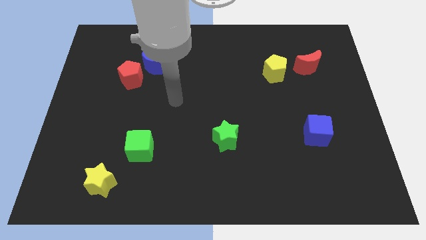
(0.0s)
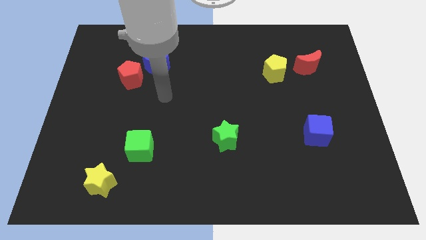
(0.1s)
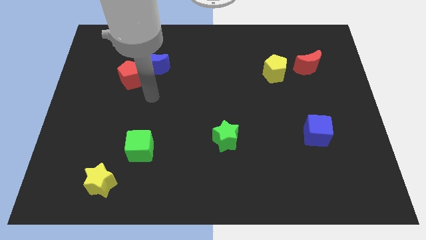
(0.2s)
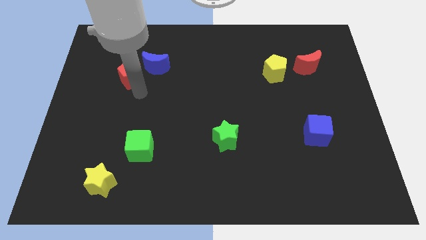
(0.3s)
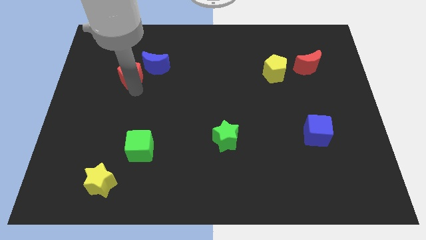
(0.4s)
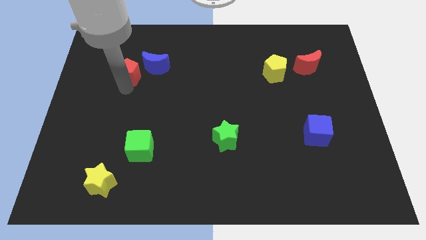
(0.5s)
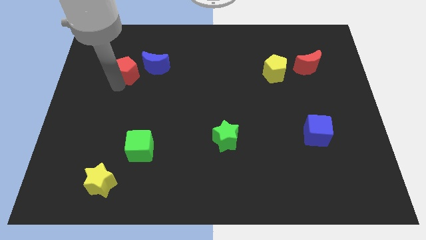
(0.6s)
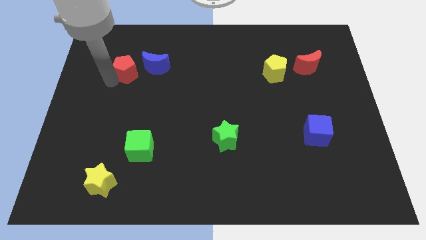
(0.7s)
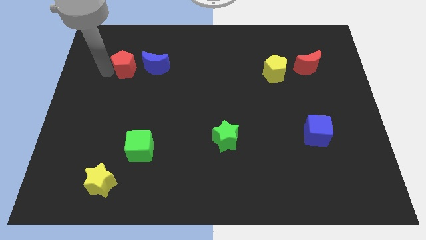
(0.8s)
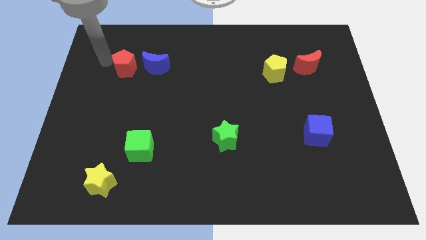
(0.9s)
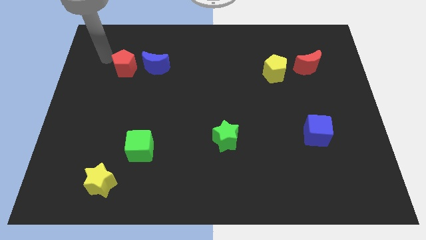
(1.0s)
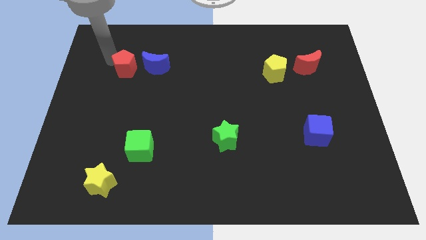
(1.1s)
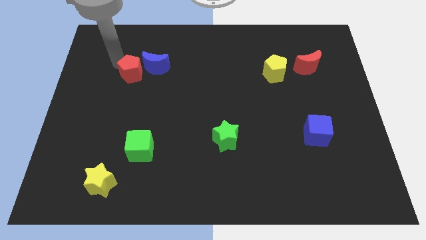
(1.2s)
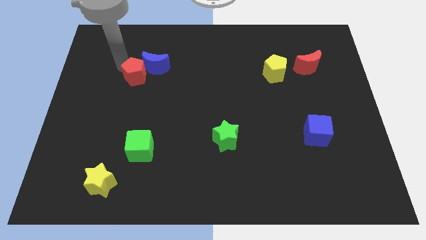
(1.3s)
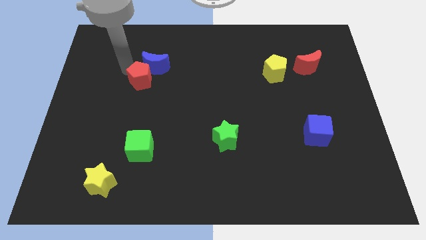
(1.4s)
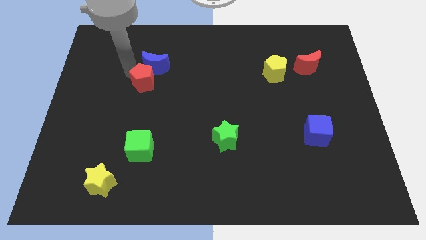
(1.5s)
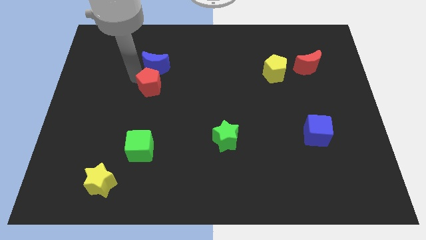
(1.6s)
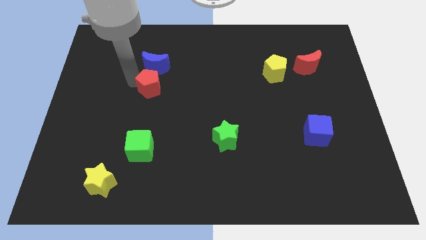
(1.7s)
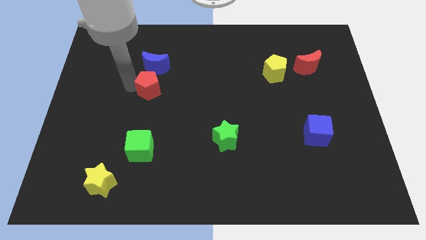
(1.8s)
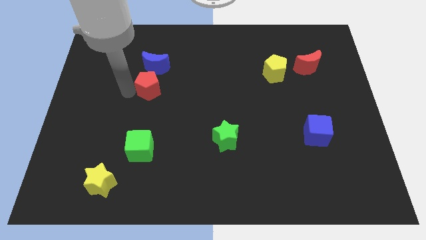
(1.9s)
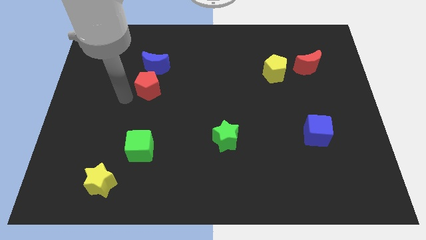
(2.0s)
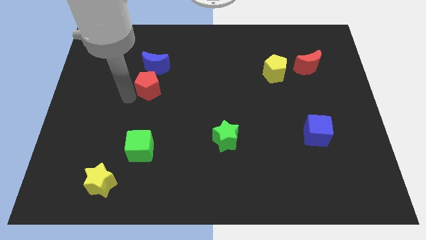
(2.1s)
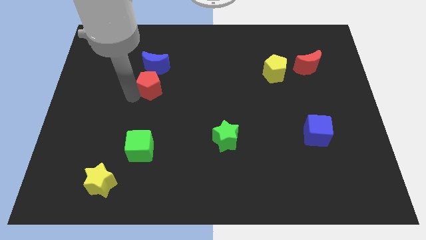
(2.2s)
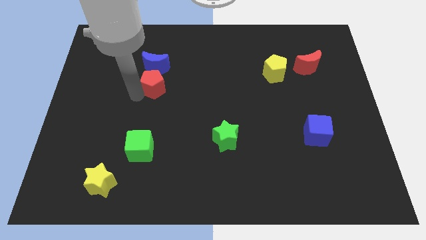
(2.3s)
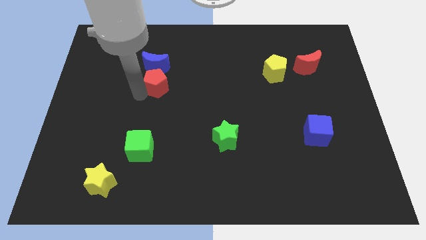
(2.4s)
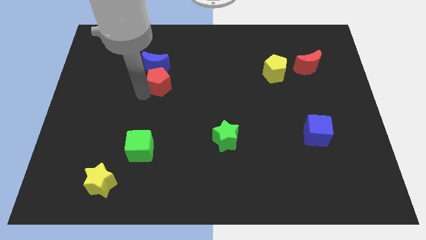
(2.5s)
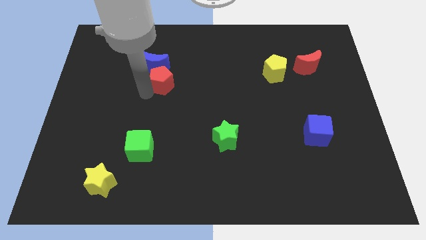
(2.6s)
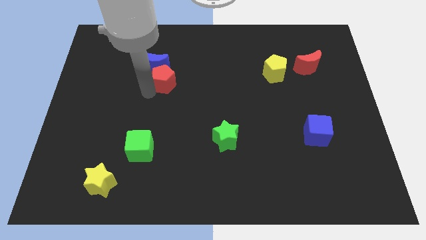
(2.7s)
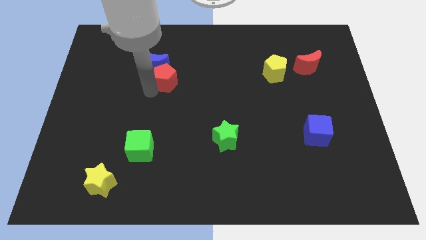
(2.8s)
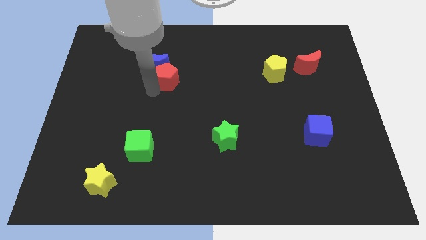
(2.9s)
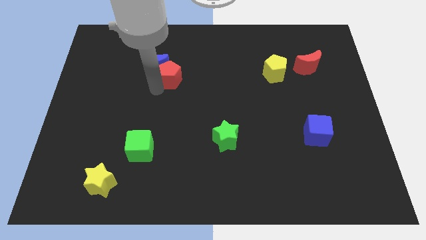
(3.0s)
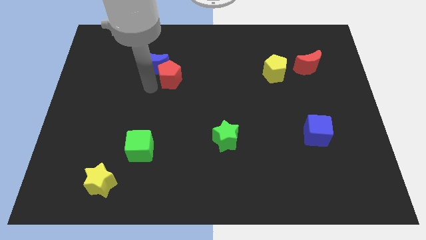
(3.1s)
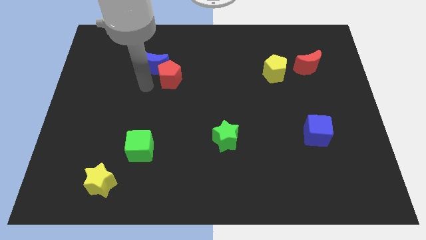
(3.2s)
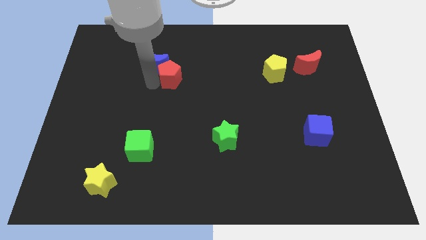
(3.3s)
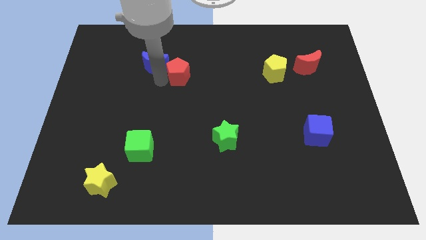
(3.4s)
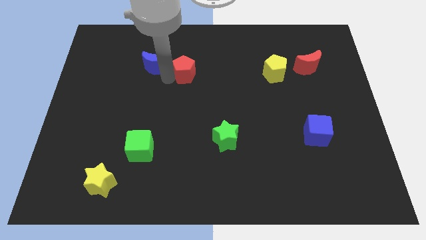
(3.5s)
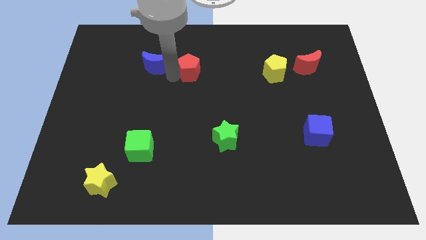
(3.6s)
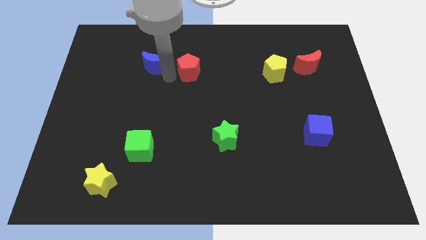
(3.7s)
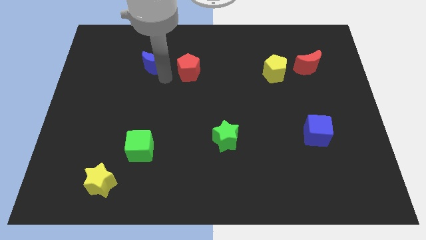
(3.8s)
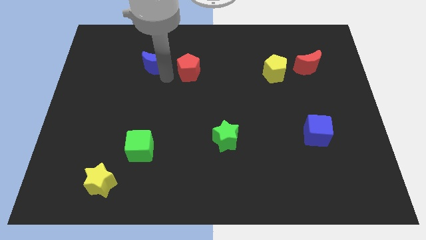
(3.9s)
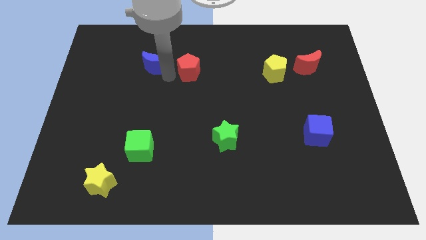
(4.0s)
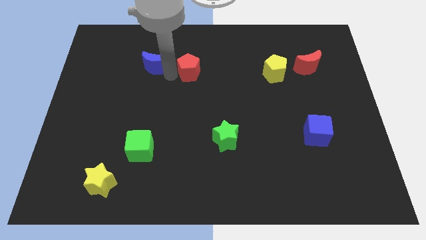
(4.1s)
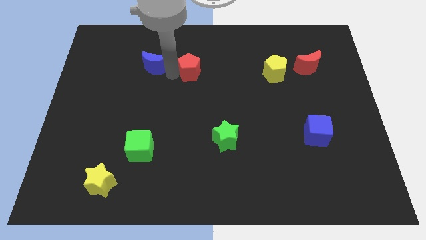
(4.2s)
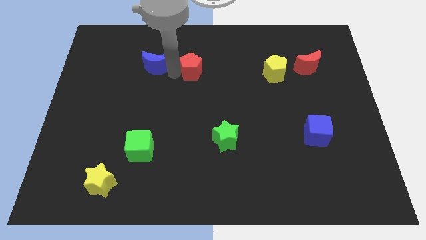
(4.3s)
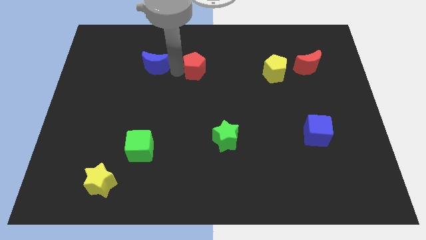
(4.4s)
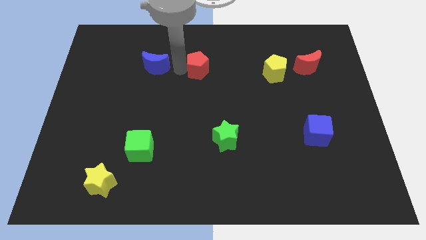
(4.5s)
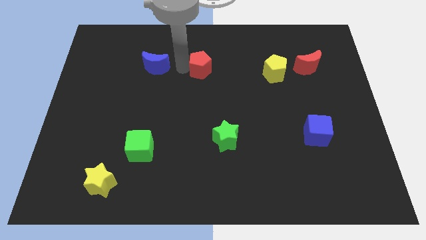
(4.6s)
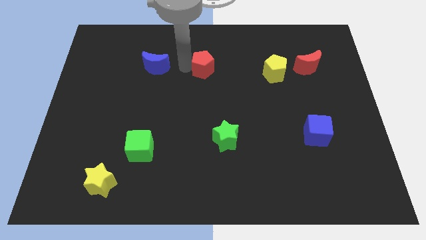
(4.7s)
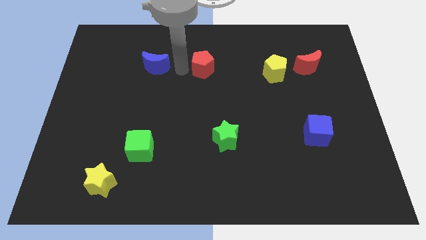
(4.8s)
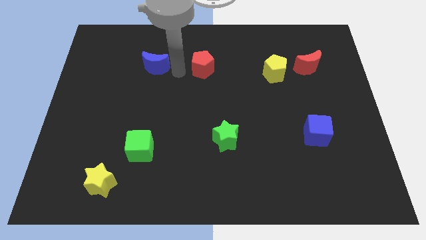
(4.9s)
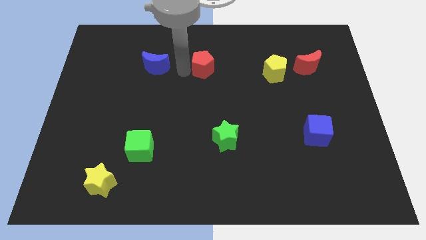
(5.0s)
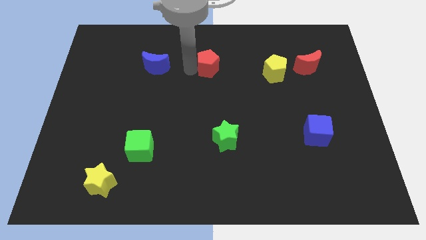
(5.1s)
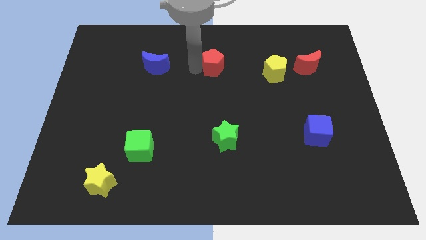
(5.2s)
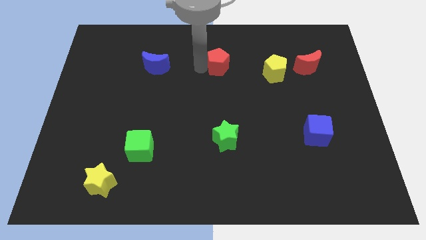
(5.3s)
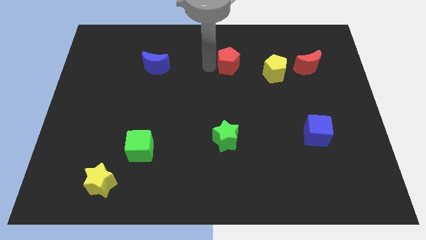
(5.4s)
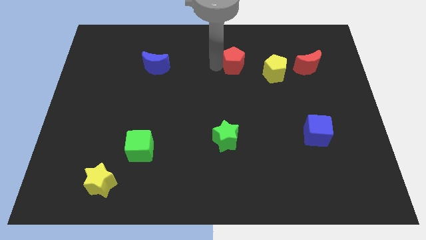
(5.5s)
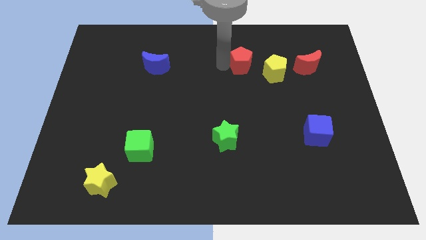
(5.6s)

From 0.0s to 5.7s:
move the red pentagon diagonally up and to the left of the yellow pentagon

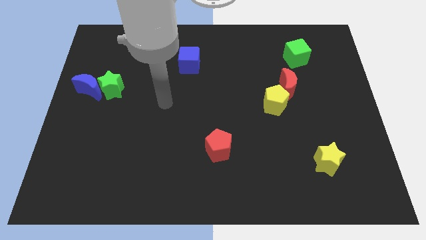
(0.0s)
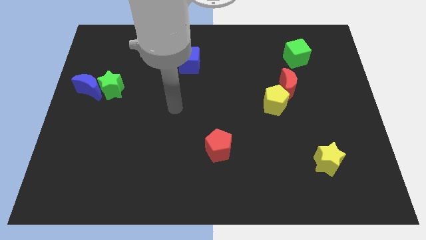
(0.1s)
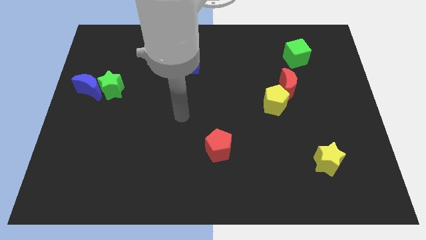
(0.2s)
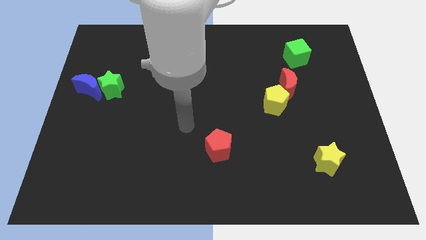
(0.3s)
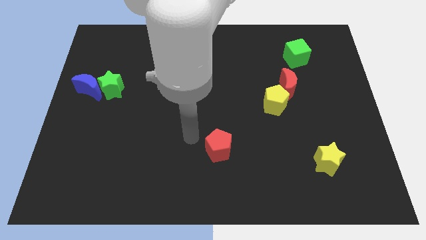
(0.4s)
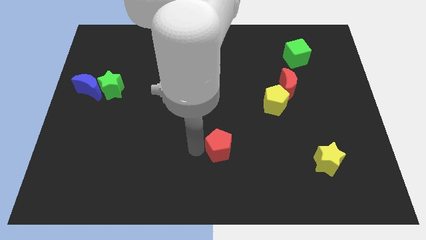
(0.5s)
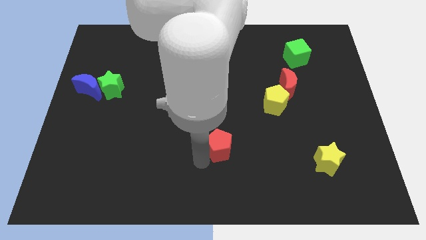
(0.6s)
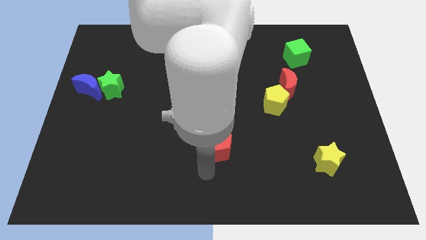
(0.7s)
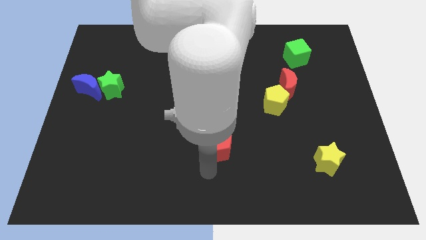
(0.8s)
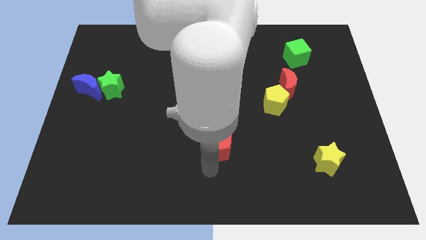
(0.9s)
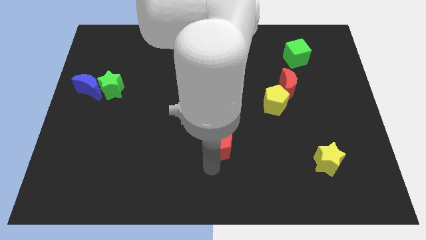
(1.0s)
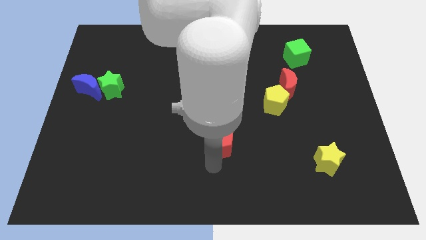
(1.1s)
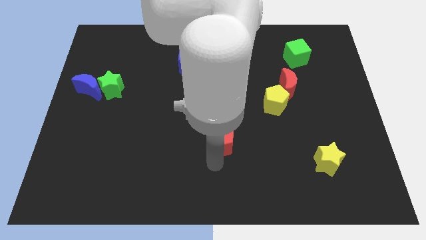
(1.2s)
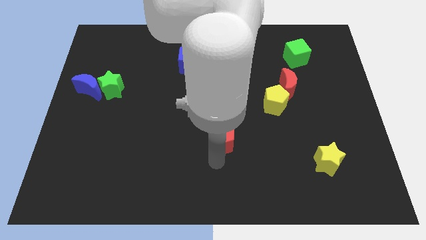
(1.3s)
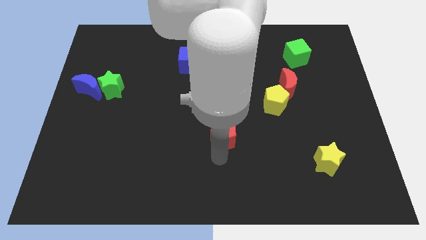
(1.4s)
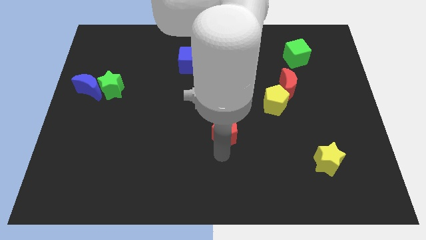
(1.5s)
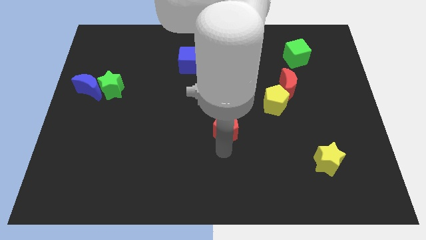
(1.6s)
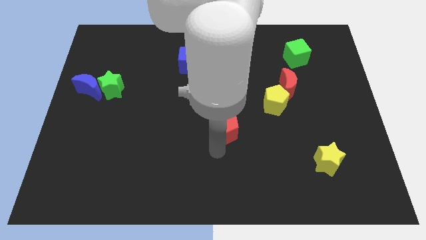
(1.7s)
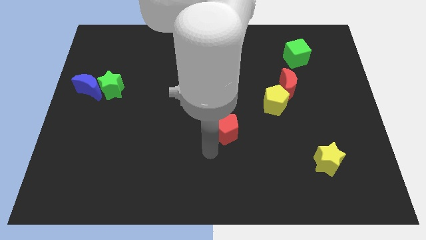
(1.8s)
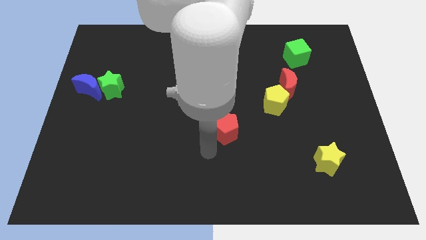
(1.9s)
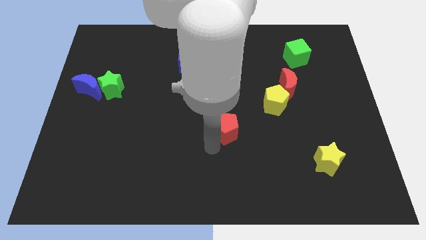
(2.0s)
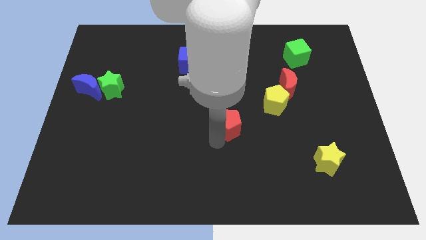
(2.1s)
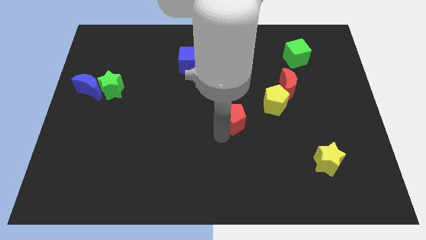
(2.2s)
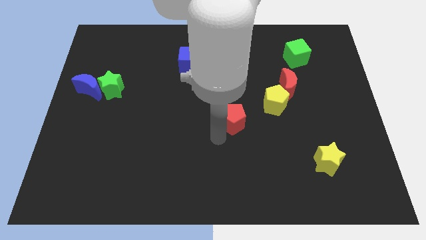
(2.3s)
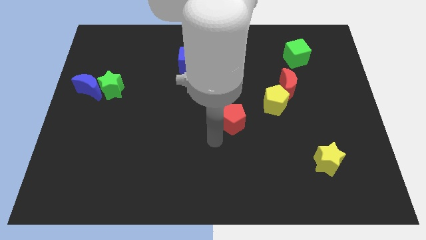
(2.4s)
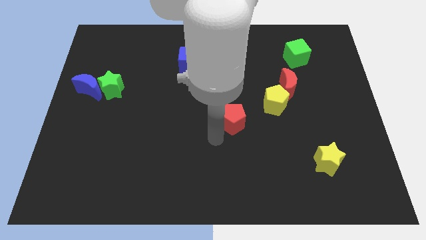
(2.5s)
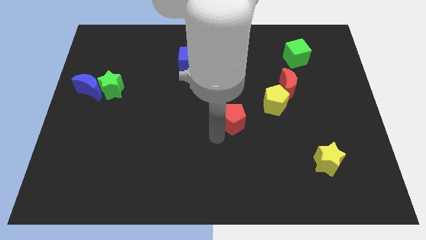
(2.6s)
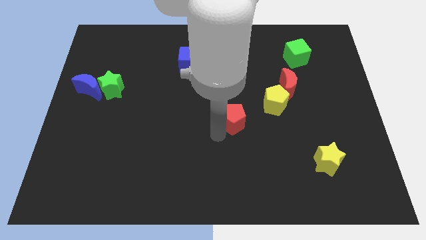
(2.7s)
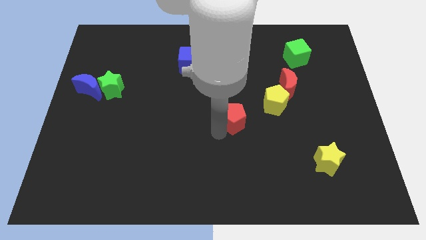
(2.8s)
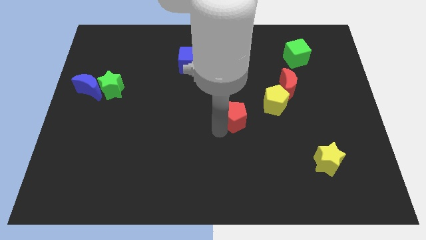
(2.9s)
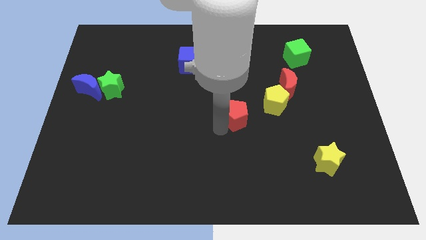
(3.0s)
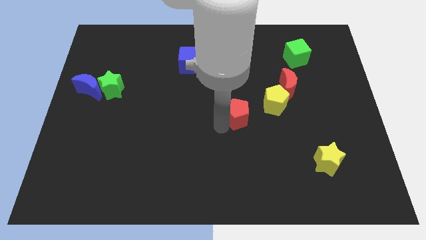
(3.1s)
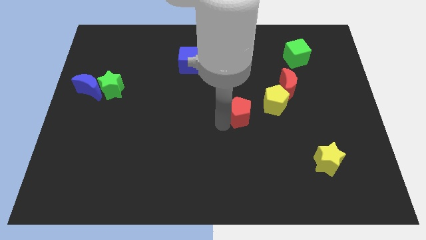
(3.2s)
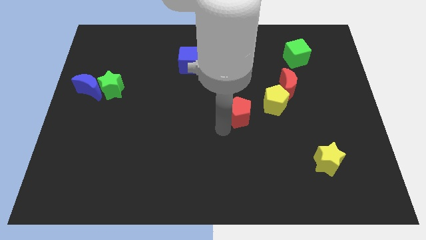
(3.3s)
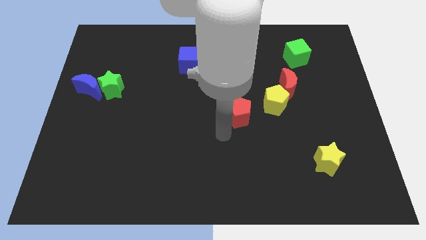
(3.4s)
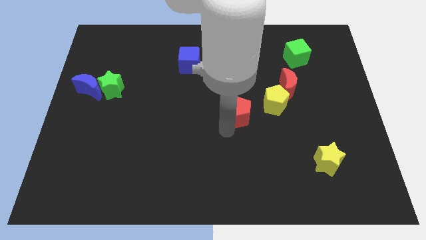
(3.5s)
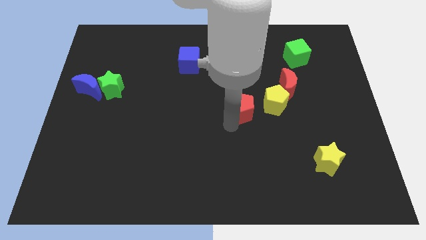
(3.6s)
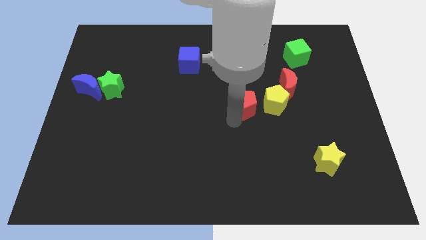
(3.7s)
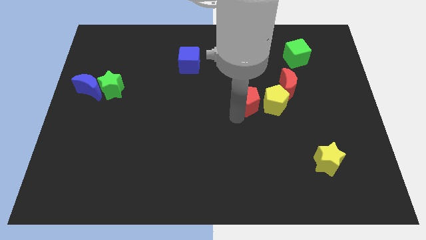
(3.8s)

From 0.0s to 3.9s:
put the red pentagon to the top left side of the yellow pentagon
